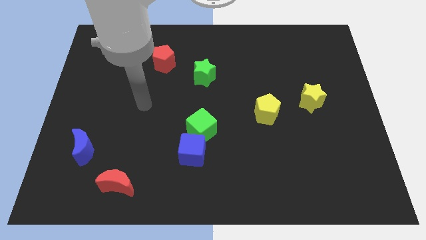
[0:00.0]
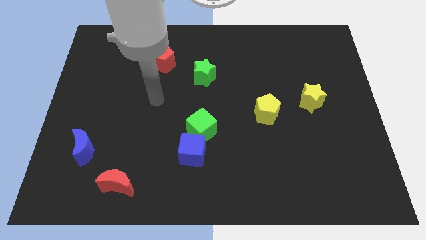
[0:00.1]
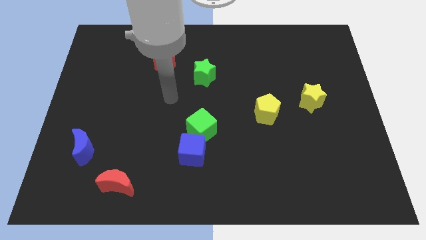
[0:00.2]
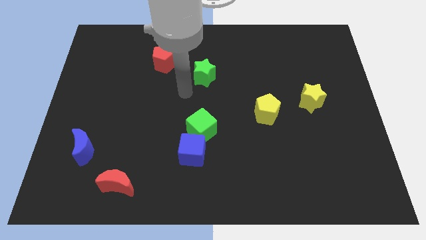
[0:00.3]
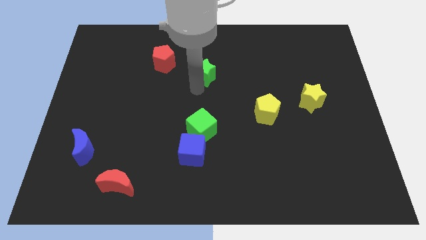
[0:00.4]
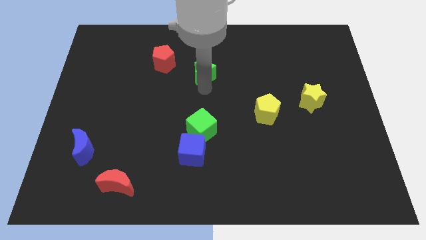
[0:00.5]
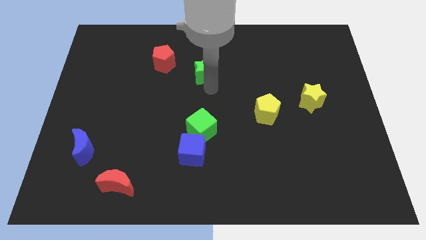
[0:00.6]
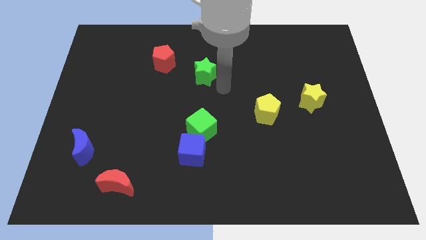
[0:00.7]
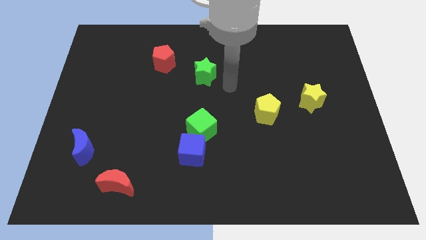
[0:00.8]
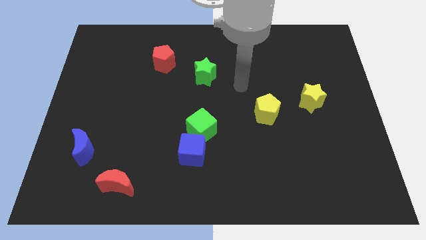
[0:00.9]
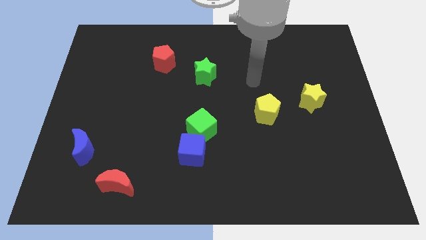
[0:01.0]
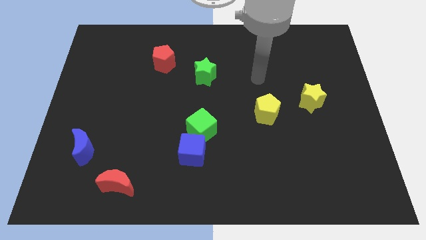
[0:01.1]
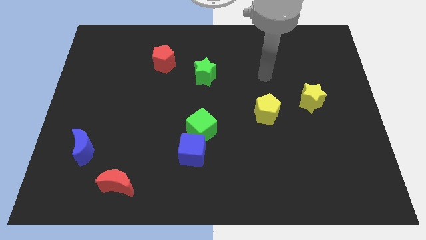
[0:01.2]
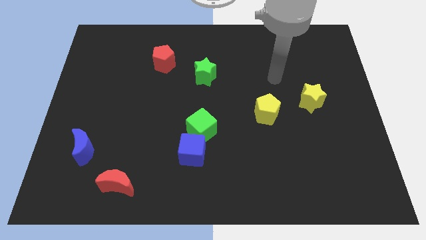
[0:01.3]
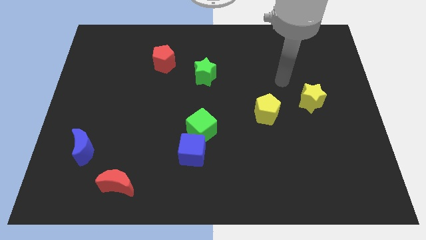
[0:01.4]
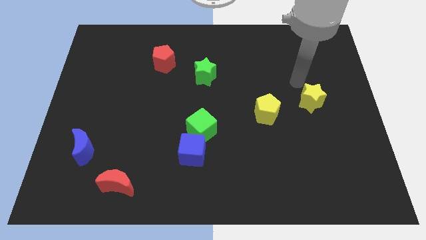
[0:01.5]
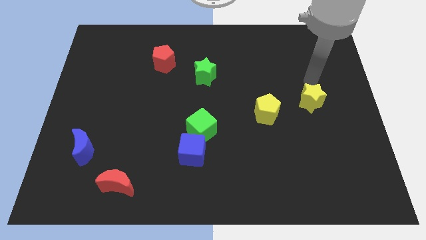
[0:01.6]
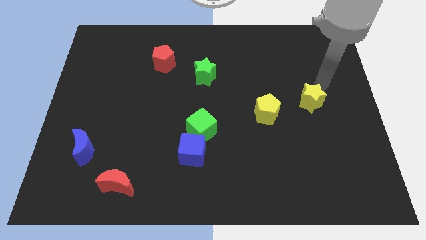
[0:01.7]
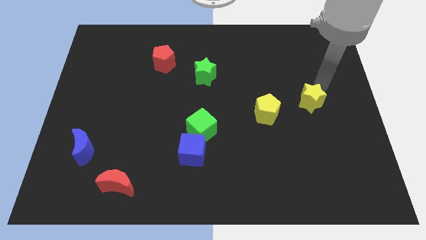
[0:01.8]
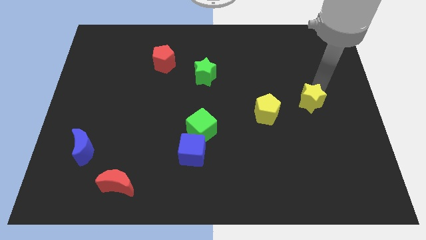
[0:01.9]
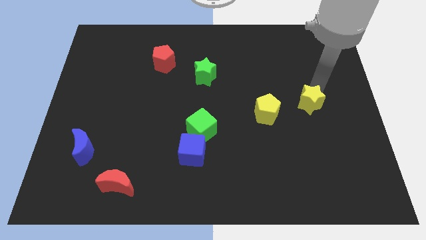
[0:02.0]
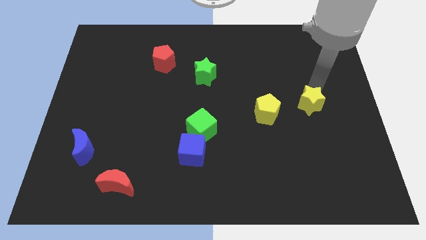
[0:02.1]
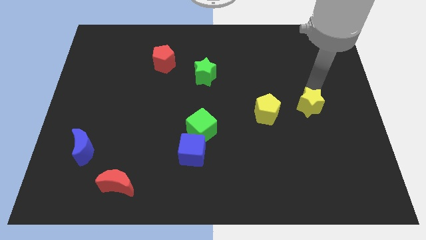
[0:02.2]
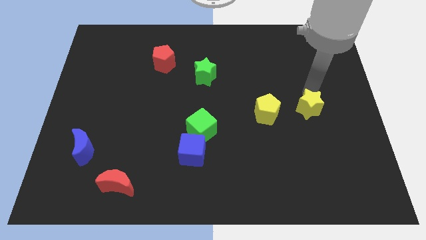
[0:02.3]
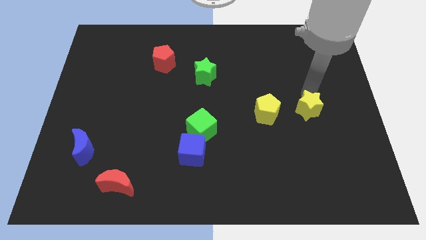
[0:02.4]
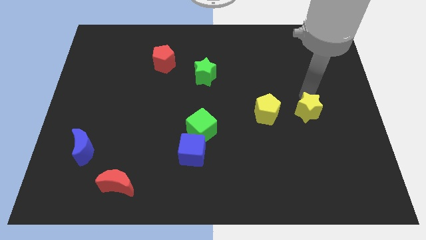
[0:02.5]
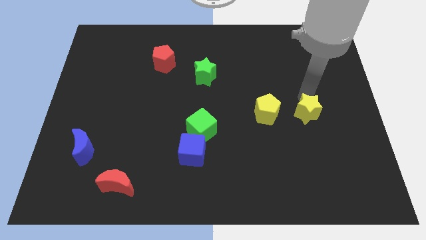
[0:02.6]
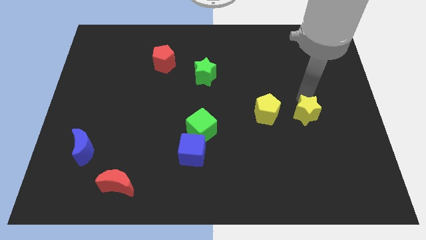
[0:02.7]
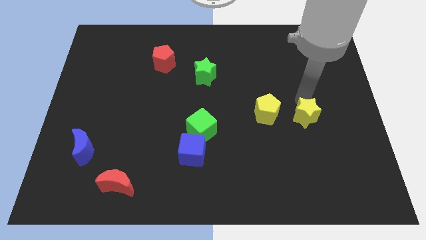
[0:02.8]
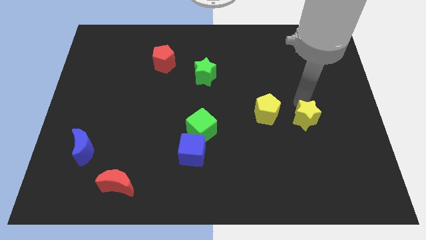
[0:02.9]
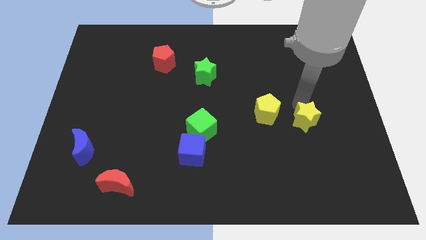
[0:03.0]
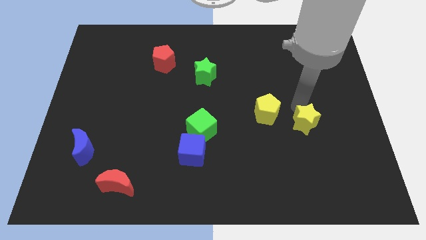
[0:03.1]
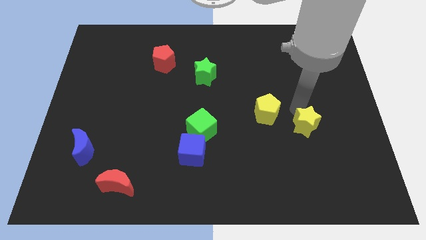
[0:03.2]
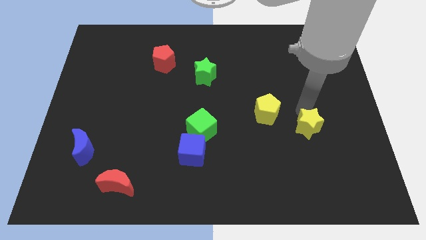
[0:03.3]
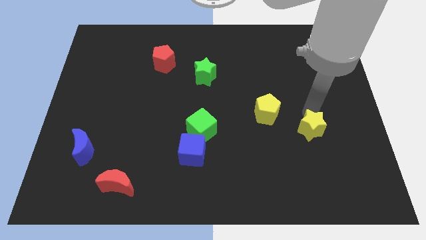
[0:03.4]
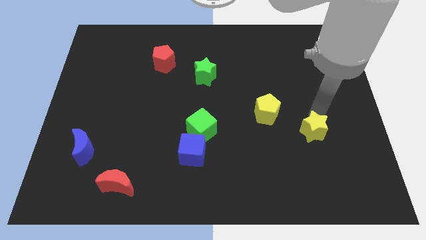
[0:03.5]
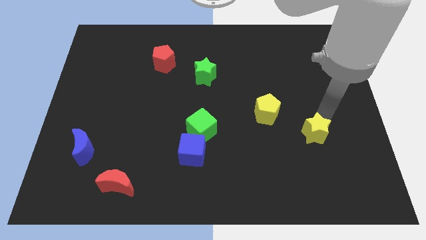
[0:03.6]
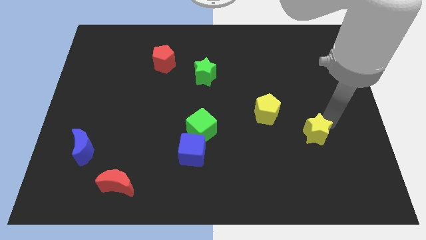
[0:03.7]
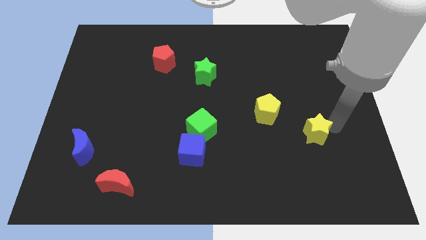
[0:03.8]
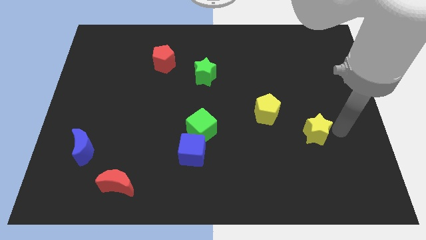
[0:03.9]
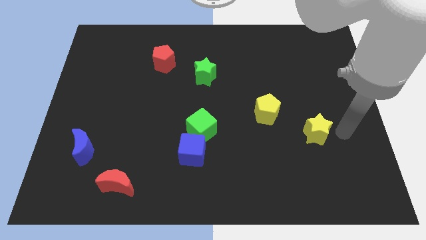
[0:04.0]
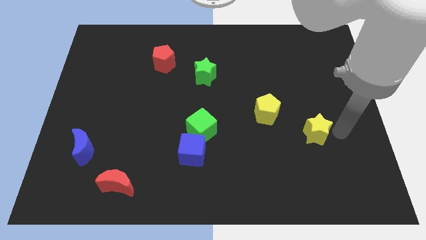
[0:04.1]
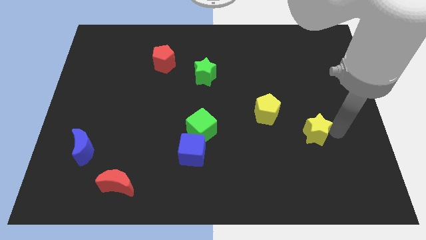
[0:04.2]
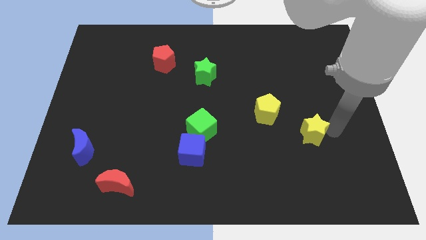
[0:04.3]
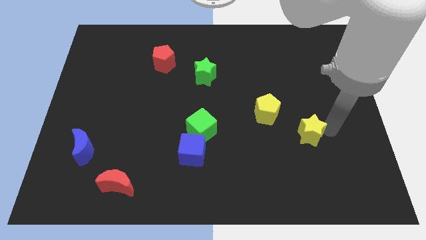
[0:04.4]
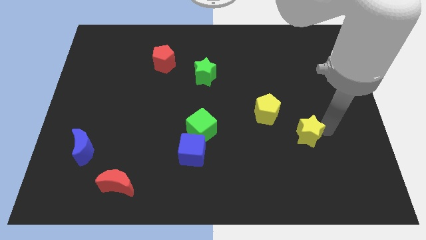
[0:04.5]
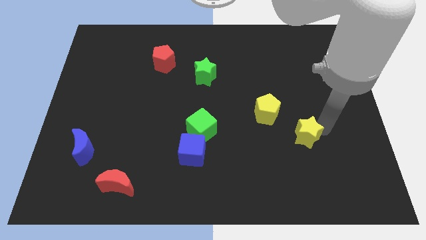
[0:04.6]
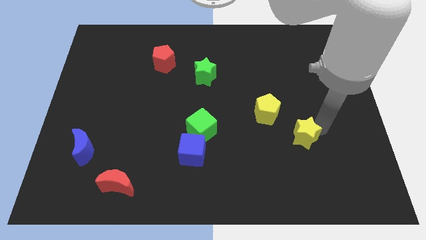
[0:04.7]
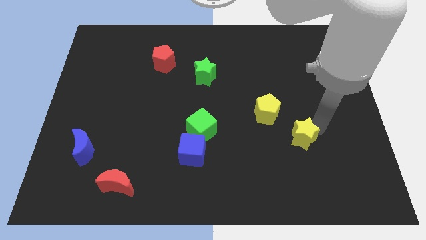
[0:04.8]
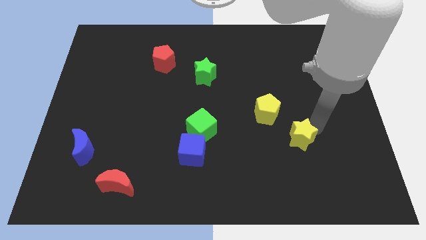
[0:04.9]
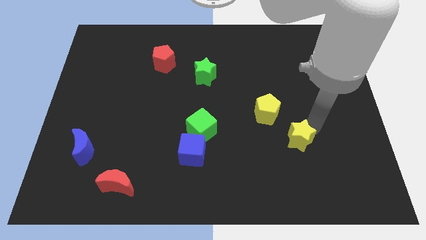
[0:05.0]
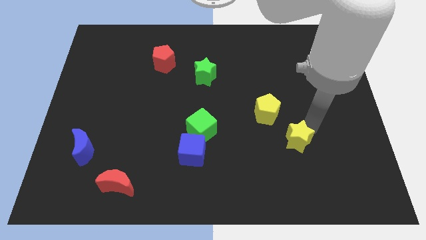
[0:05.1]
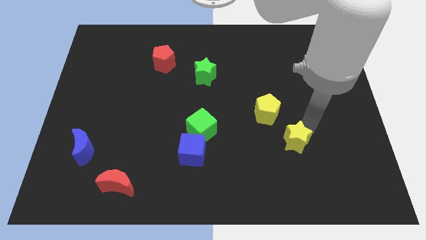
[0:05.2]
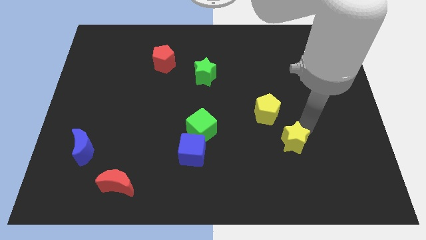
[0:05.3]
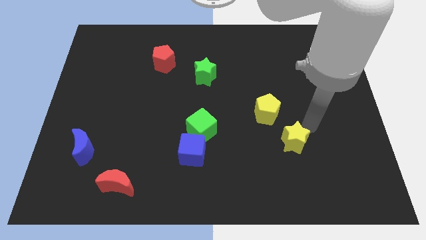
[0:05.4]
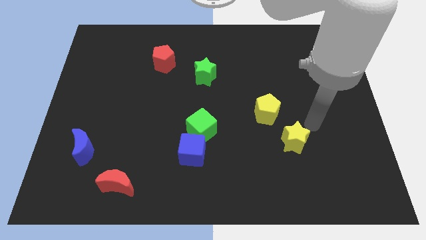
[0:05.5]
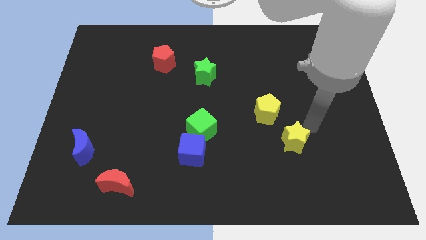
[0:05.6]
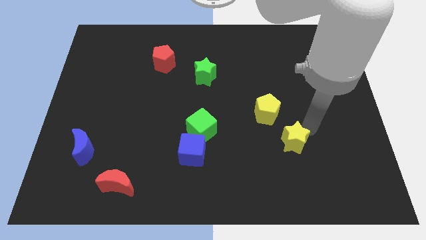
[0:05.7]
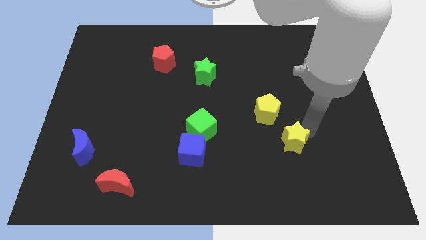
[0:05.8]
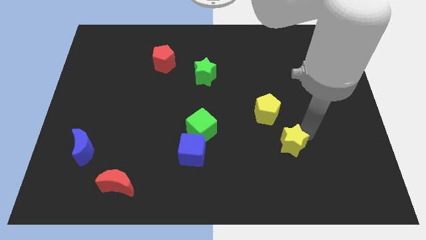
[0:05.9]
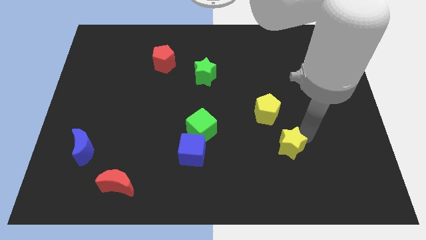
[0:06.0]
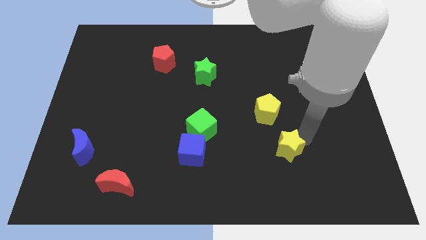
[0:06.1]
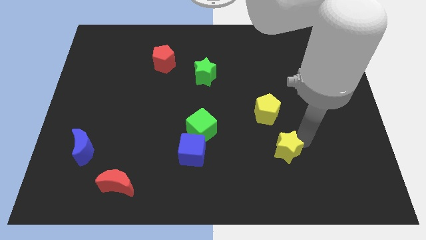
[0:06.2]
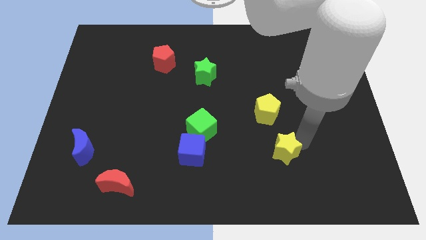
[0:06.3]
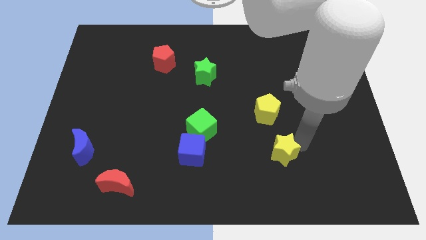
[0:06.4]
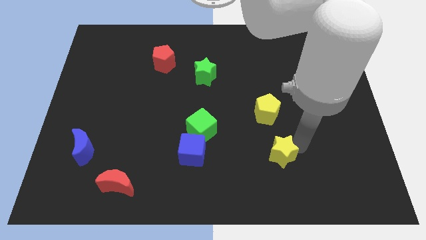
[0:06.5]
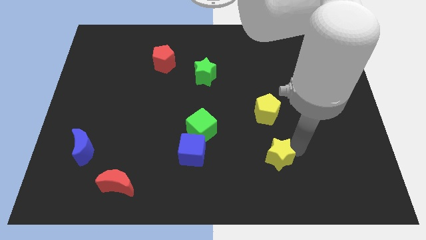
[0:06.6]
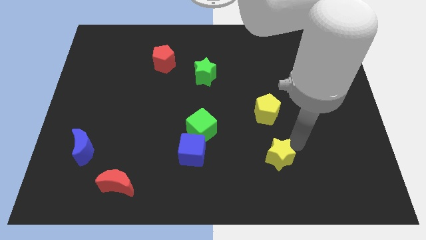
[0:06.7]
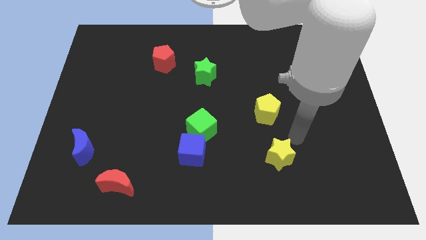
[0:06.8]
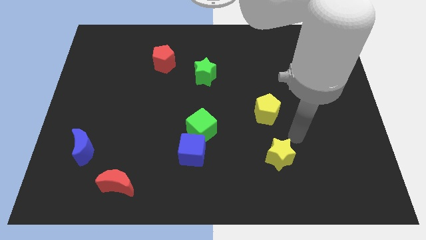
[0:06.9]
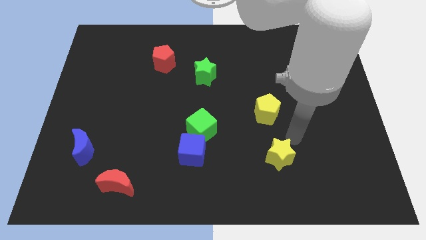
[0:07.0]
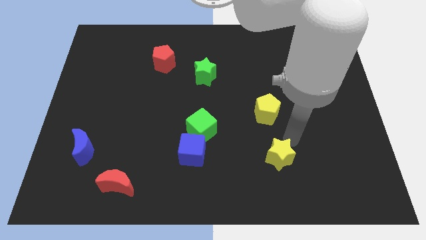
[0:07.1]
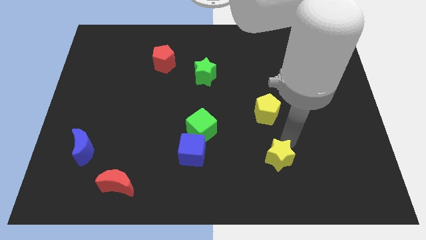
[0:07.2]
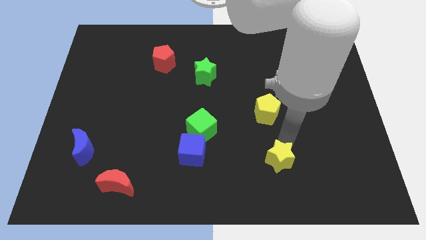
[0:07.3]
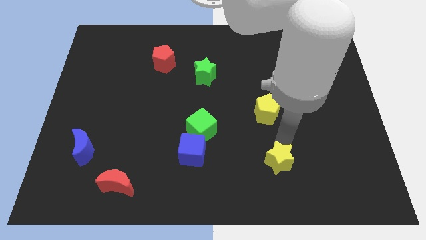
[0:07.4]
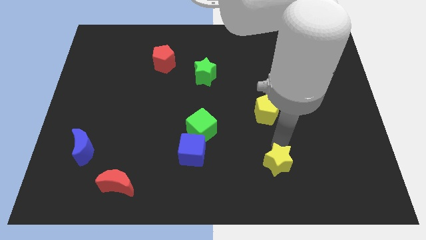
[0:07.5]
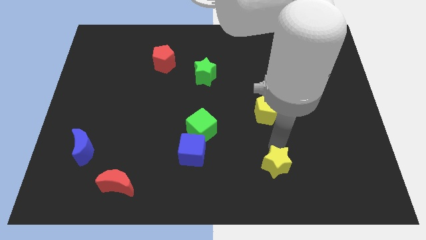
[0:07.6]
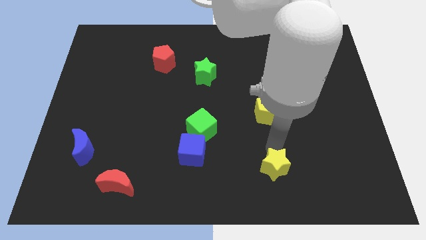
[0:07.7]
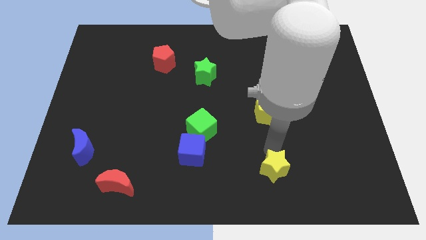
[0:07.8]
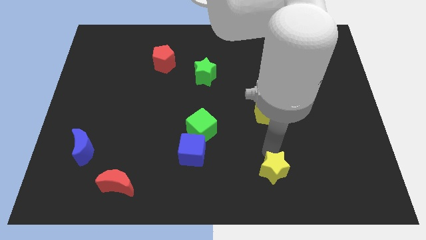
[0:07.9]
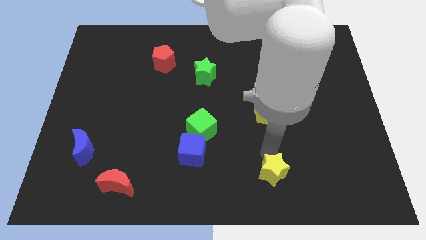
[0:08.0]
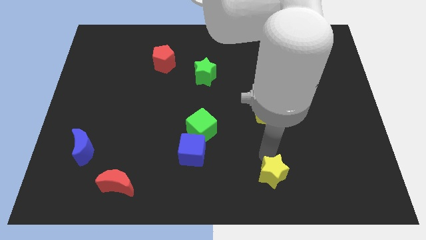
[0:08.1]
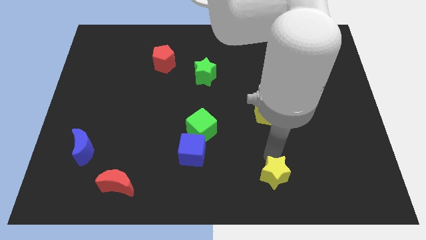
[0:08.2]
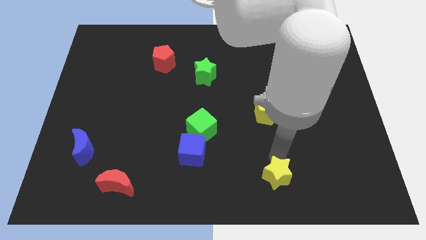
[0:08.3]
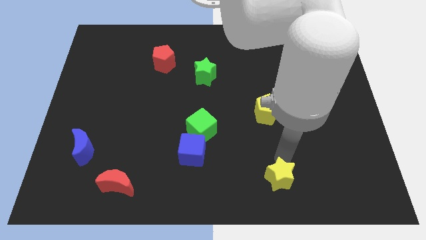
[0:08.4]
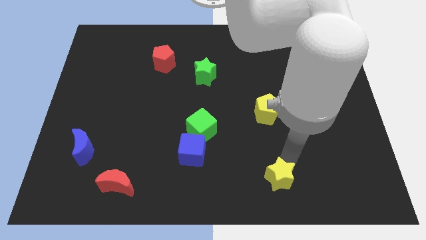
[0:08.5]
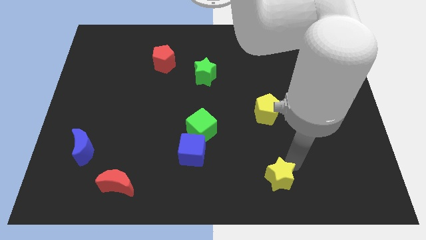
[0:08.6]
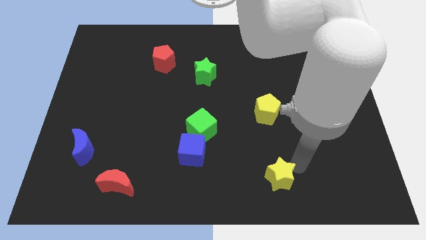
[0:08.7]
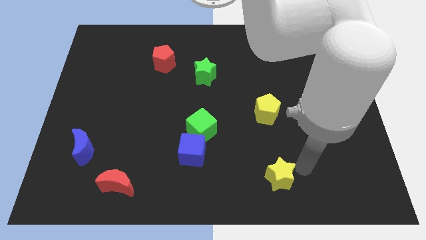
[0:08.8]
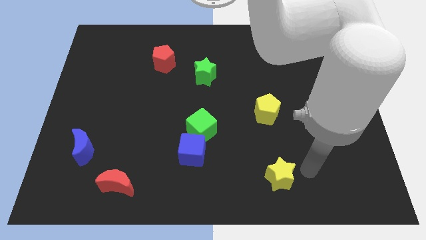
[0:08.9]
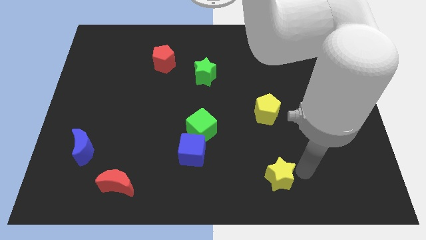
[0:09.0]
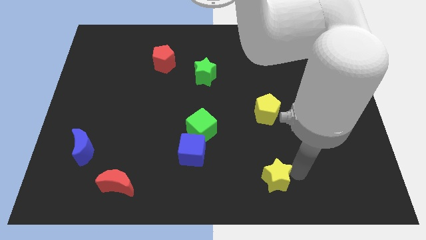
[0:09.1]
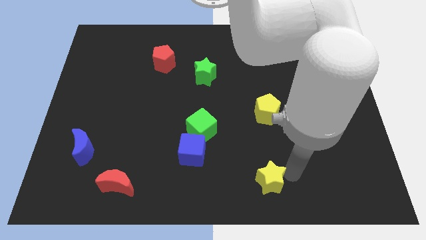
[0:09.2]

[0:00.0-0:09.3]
move the yellow star to the bottom
